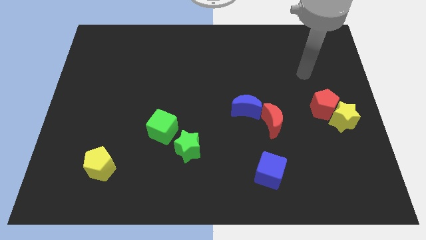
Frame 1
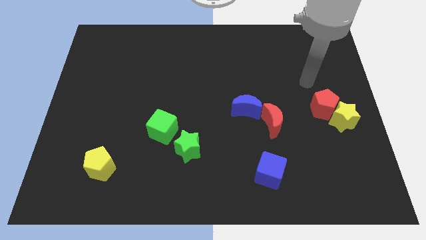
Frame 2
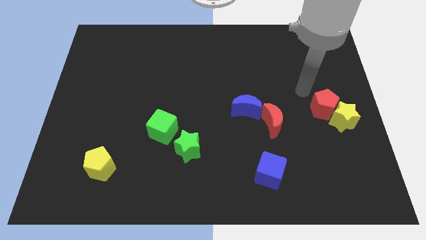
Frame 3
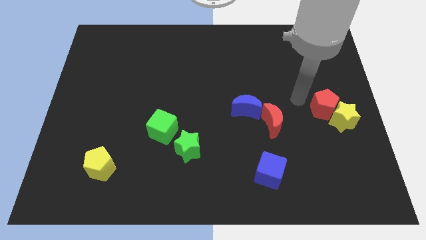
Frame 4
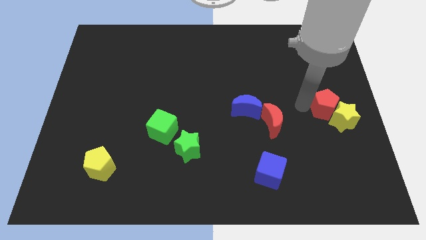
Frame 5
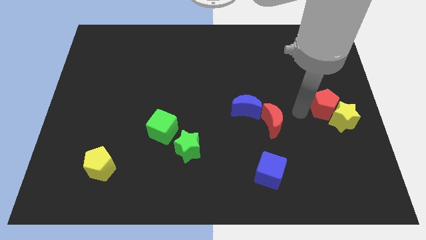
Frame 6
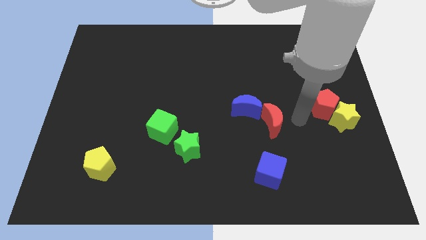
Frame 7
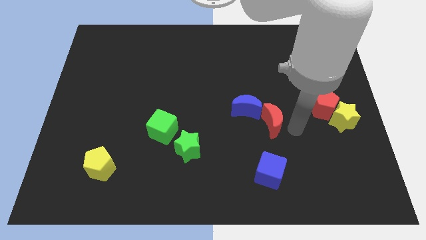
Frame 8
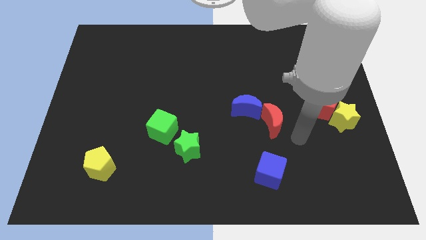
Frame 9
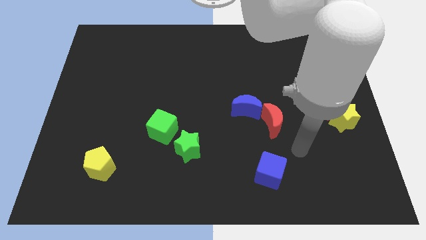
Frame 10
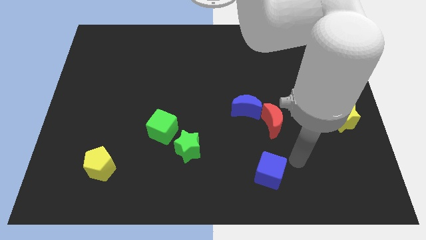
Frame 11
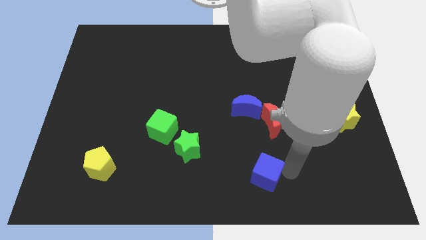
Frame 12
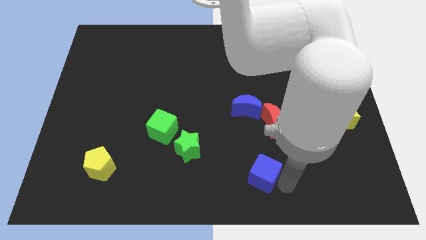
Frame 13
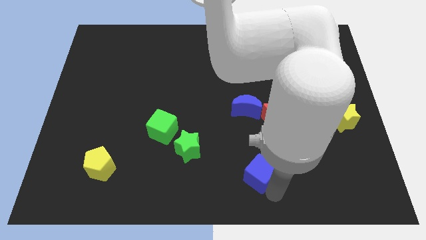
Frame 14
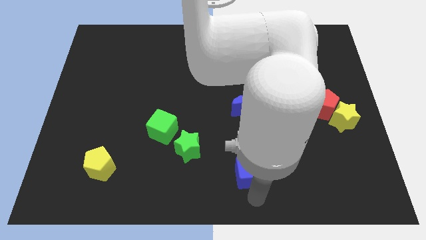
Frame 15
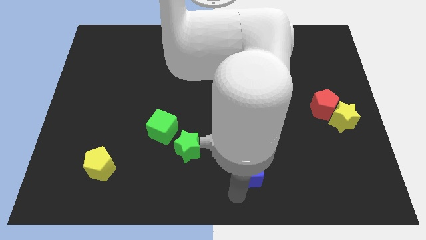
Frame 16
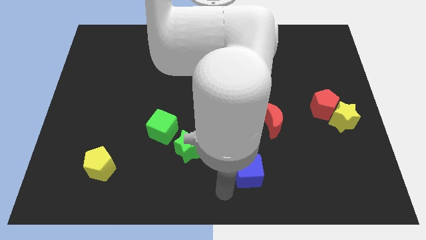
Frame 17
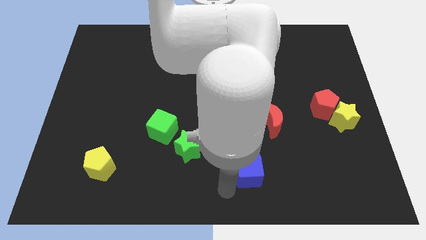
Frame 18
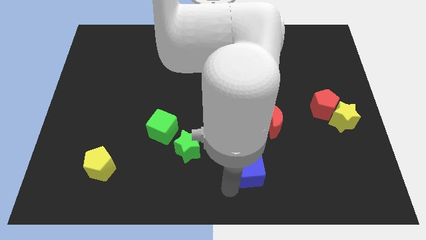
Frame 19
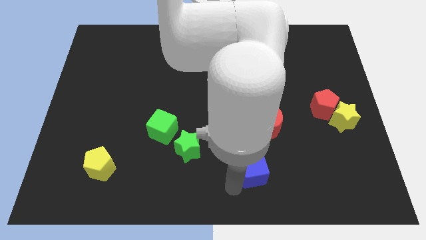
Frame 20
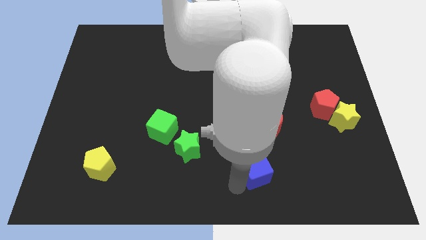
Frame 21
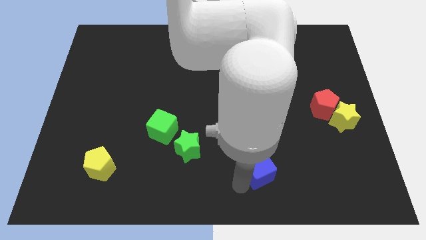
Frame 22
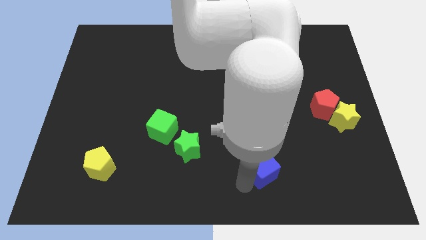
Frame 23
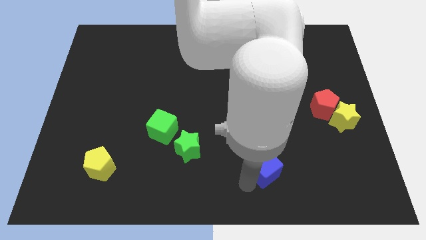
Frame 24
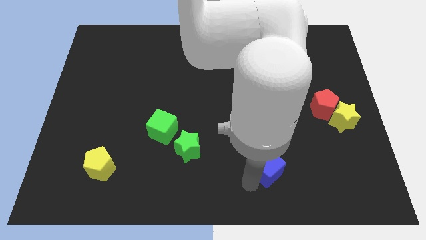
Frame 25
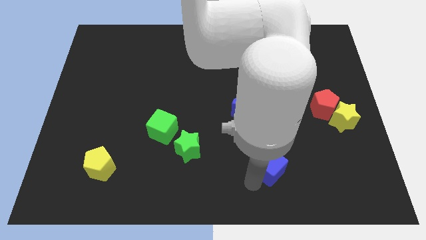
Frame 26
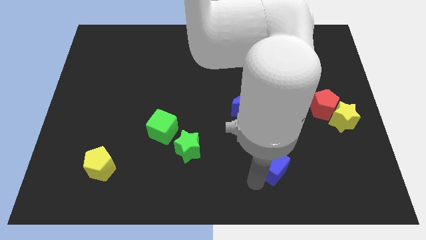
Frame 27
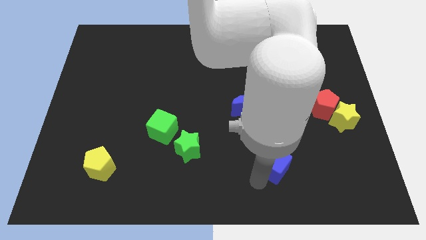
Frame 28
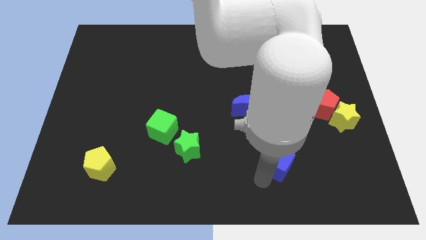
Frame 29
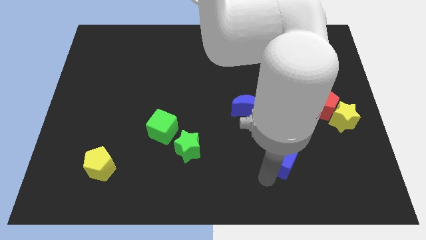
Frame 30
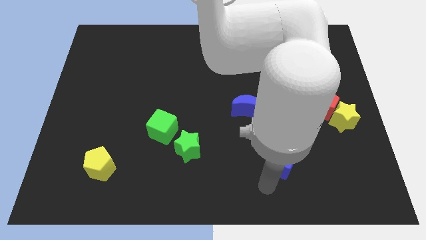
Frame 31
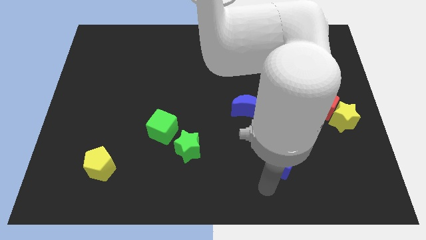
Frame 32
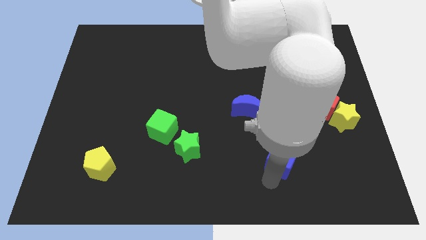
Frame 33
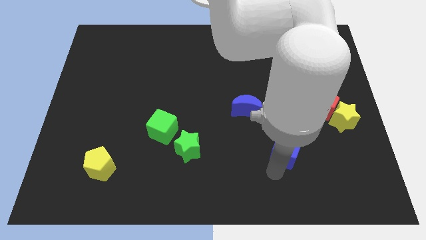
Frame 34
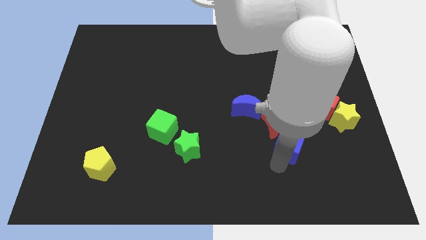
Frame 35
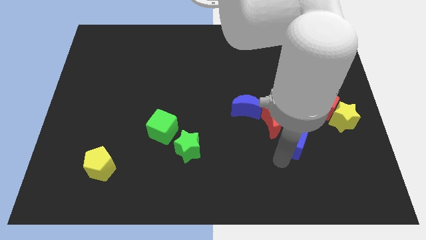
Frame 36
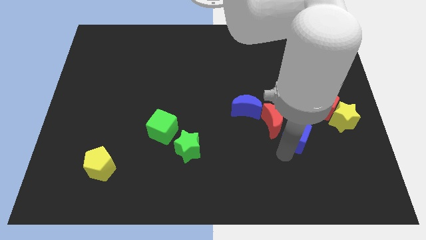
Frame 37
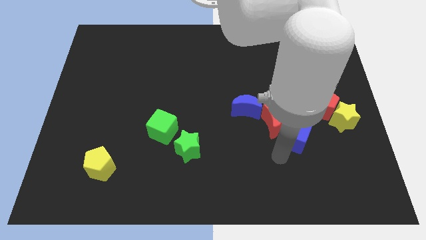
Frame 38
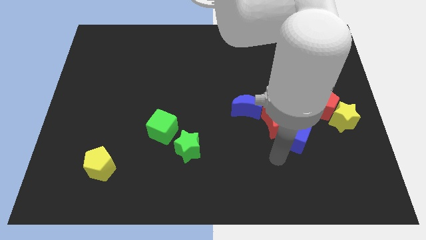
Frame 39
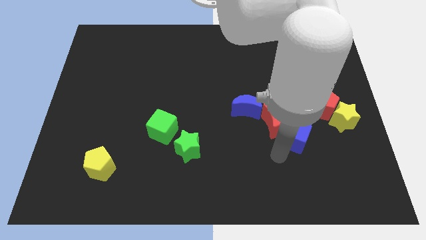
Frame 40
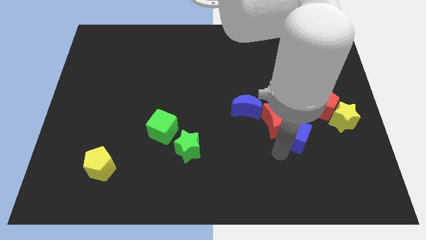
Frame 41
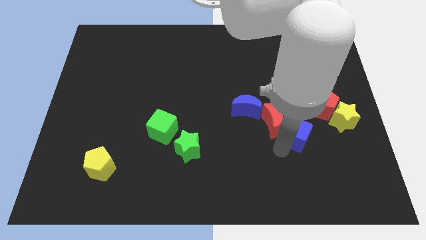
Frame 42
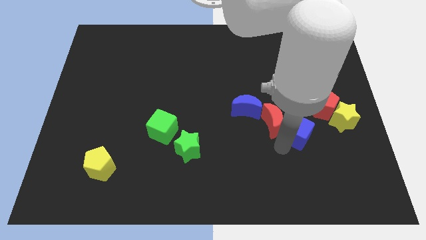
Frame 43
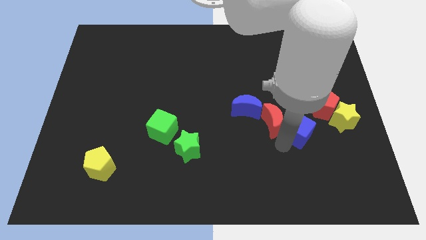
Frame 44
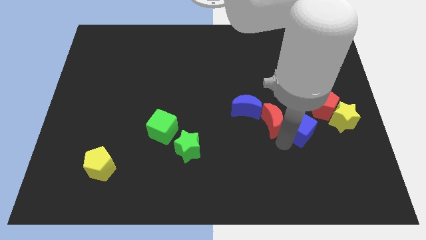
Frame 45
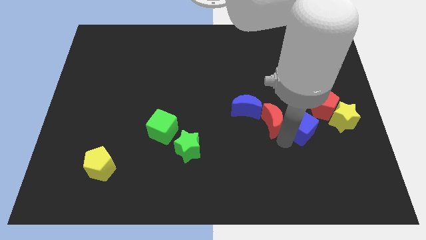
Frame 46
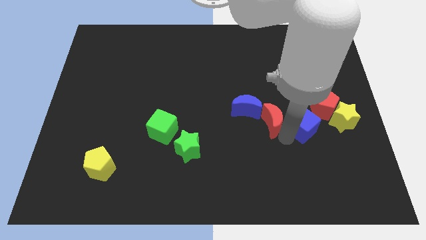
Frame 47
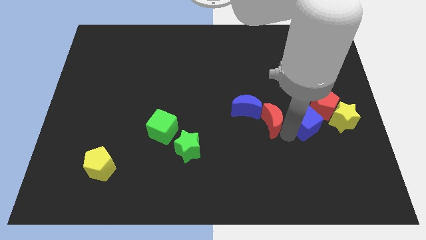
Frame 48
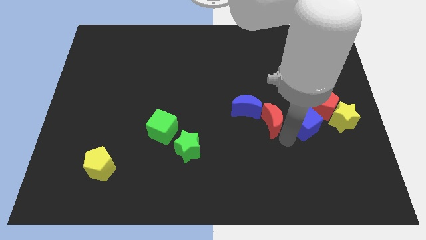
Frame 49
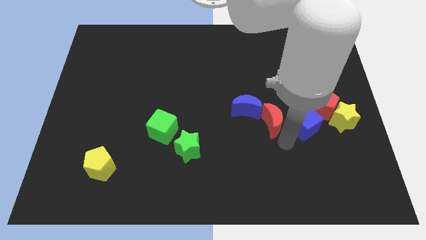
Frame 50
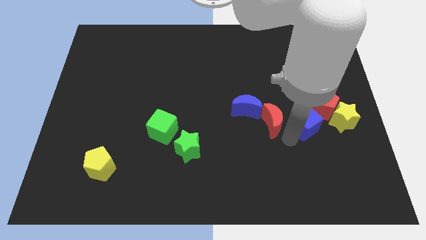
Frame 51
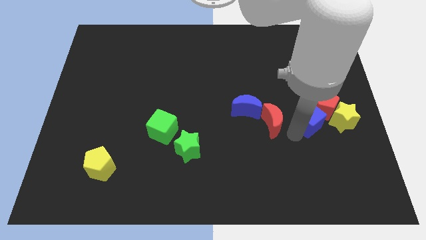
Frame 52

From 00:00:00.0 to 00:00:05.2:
push the blue cube close to the red pentagon

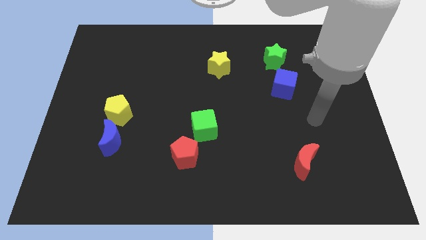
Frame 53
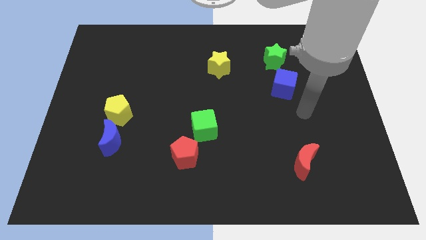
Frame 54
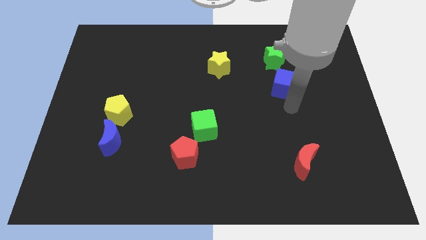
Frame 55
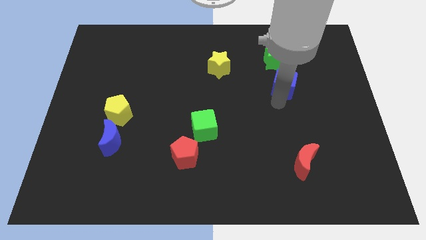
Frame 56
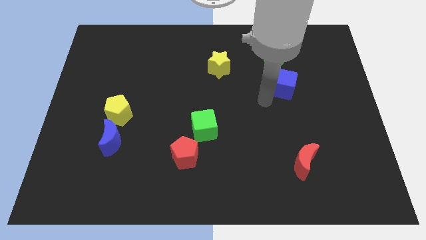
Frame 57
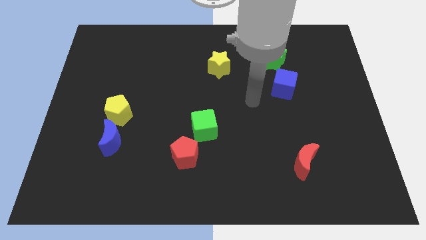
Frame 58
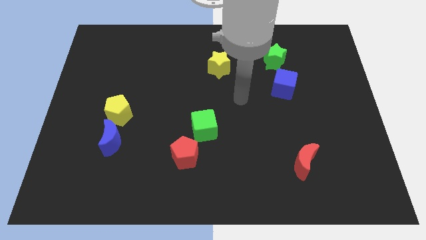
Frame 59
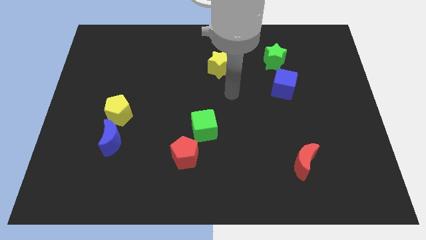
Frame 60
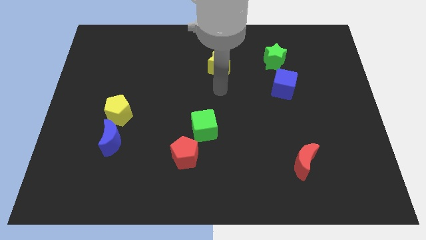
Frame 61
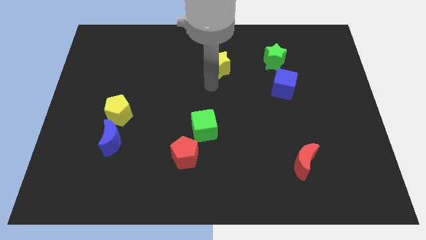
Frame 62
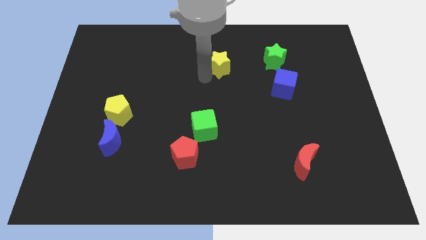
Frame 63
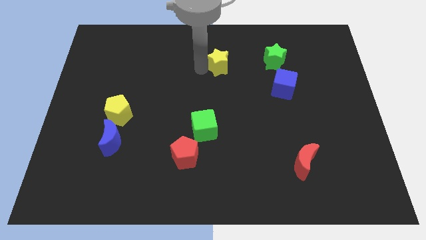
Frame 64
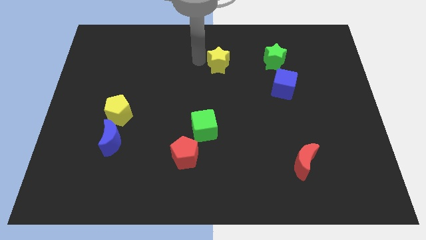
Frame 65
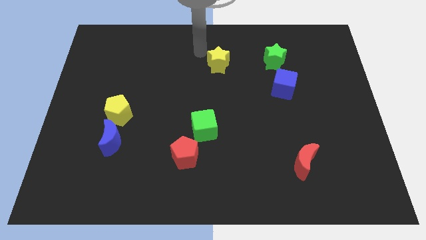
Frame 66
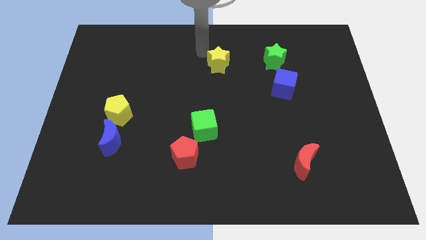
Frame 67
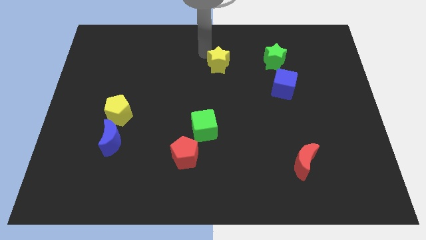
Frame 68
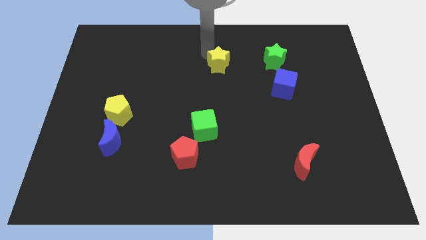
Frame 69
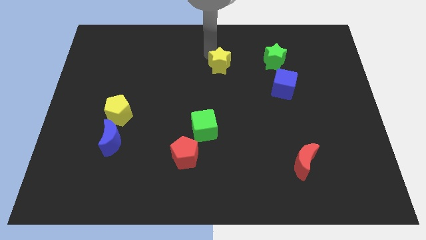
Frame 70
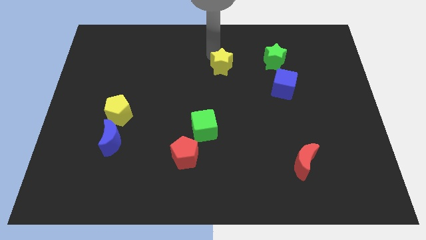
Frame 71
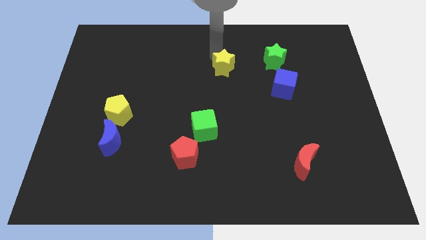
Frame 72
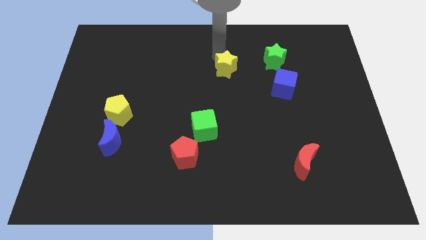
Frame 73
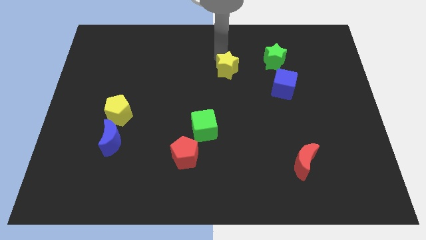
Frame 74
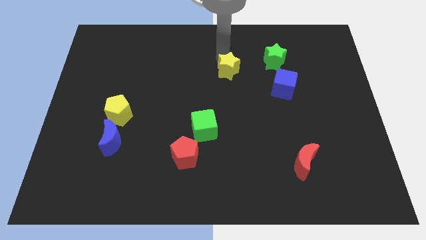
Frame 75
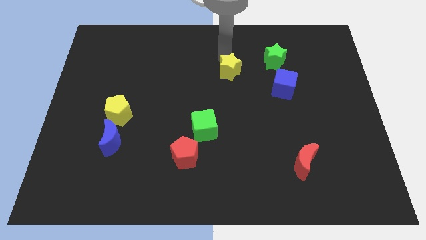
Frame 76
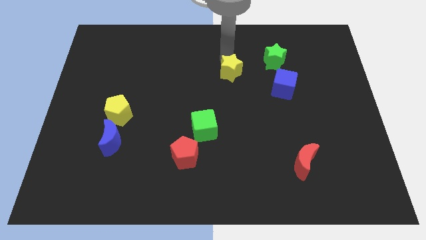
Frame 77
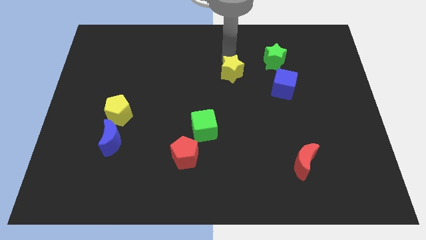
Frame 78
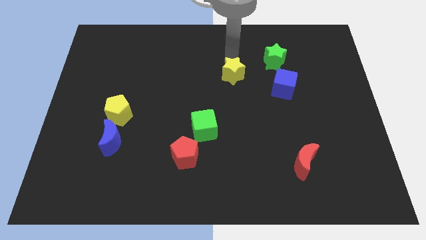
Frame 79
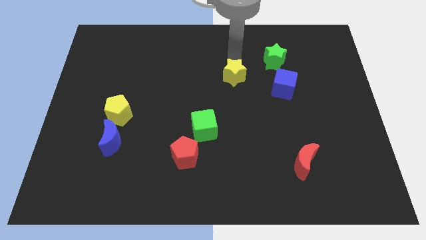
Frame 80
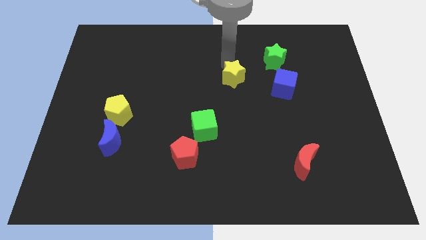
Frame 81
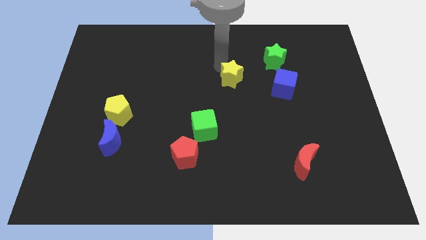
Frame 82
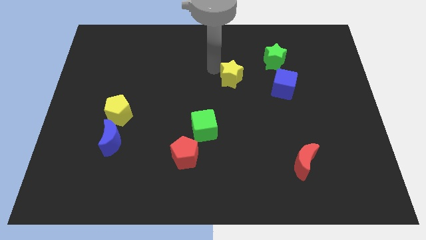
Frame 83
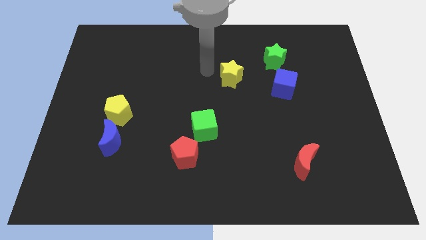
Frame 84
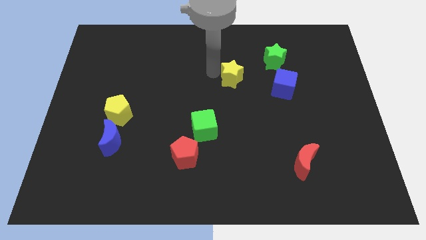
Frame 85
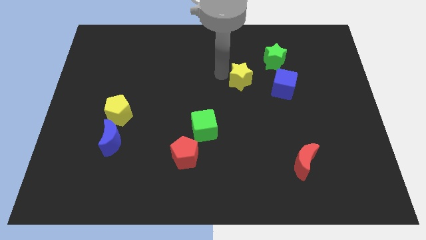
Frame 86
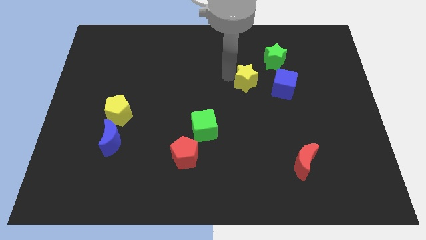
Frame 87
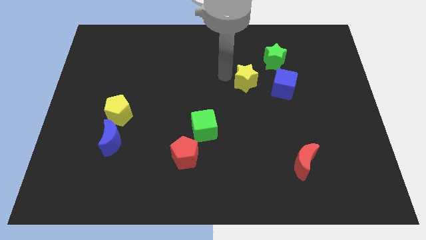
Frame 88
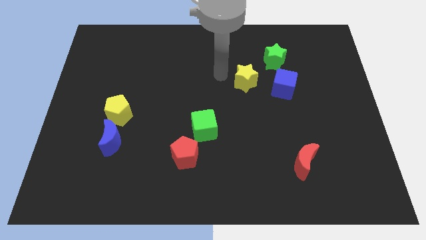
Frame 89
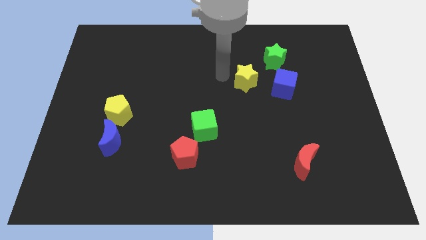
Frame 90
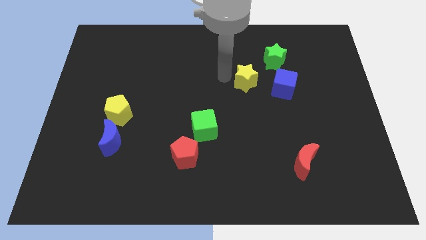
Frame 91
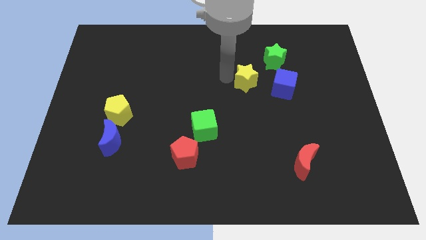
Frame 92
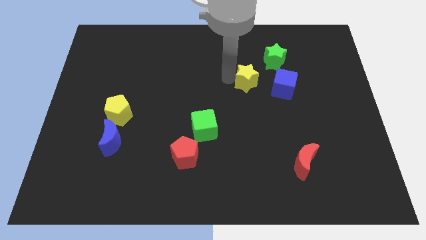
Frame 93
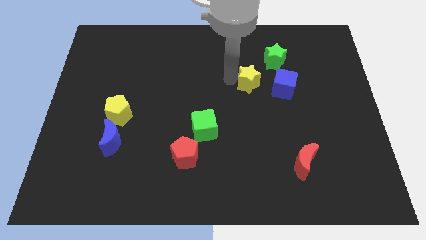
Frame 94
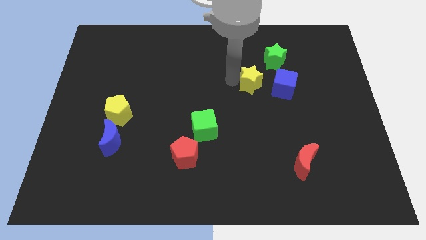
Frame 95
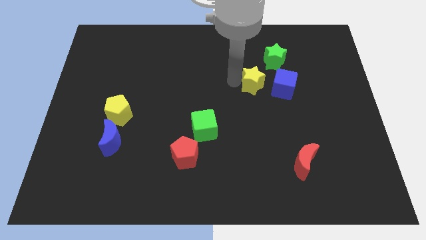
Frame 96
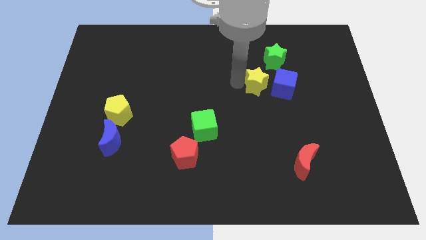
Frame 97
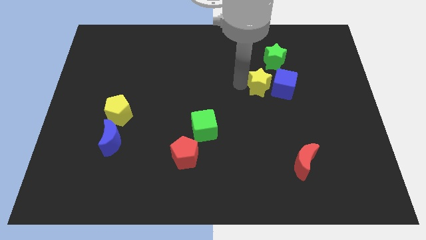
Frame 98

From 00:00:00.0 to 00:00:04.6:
slide the yellow star to the blue cube
